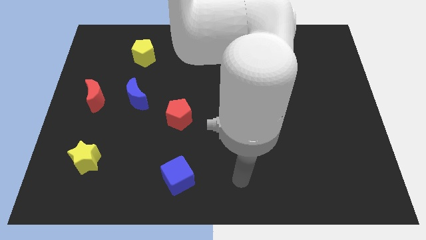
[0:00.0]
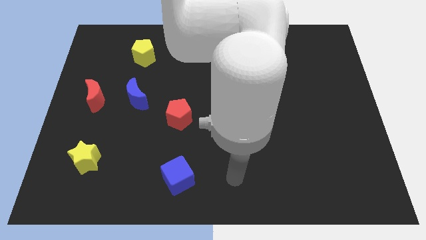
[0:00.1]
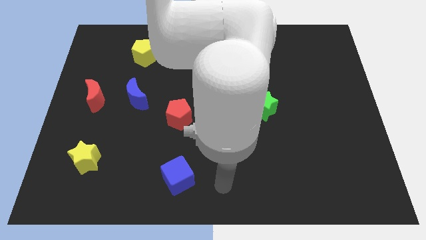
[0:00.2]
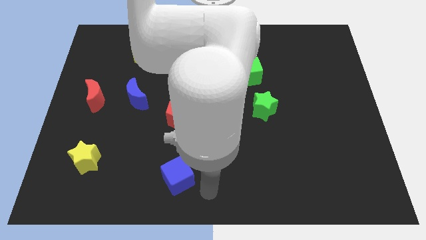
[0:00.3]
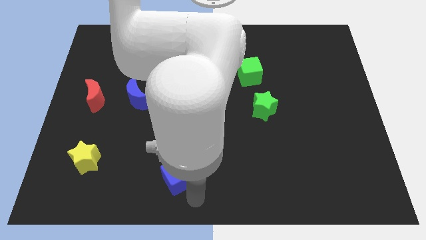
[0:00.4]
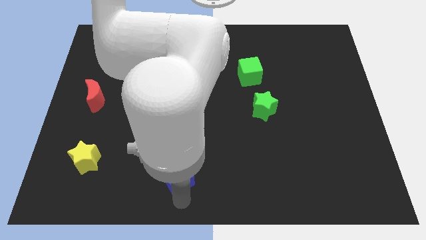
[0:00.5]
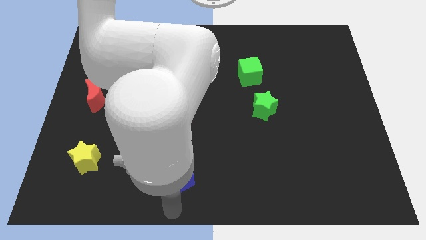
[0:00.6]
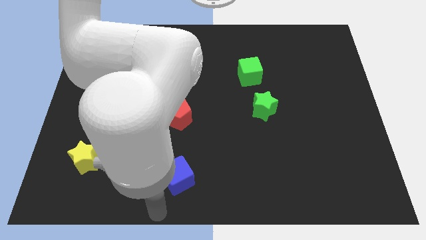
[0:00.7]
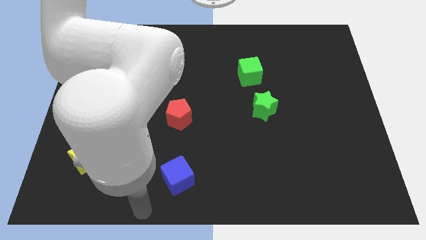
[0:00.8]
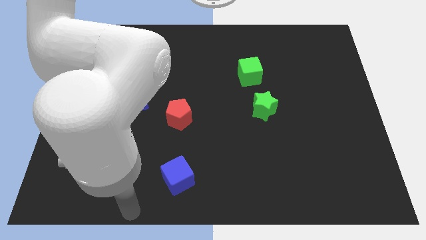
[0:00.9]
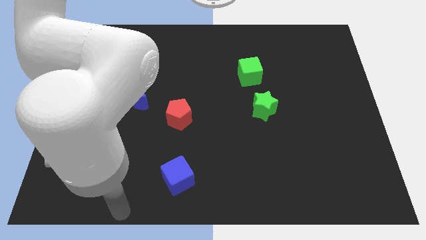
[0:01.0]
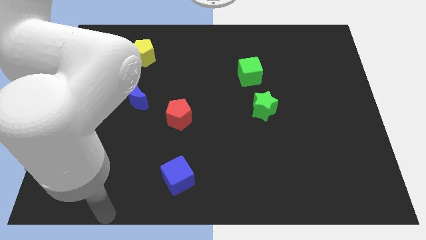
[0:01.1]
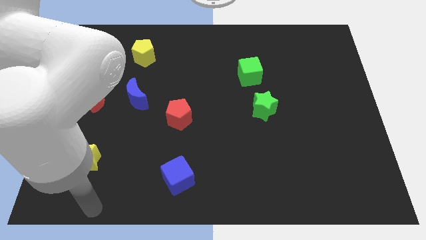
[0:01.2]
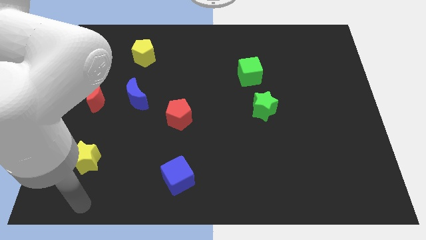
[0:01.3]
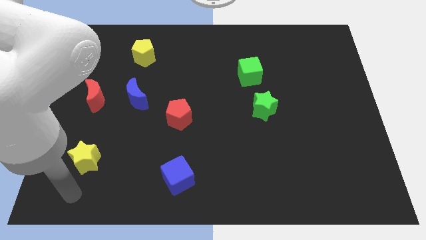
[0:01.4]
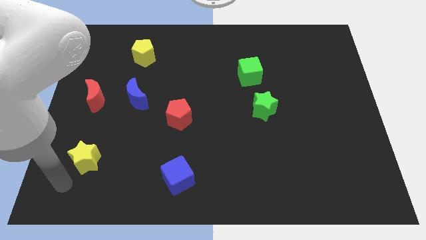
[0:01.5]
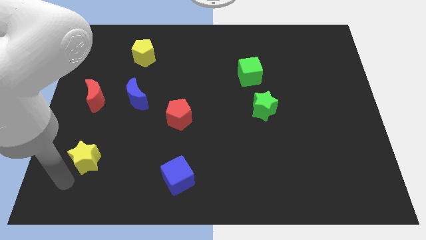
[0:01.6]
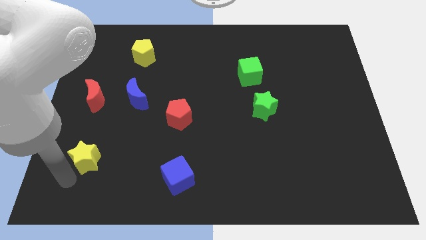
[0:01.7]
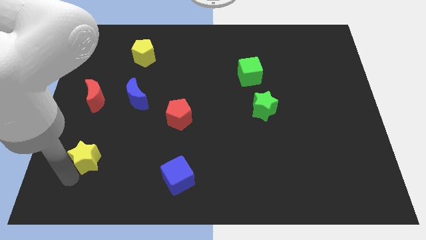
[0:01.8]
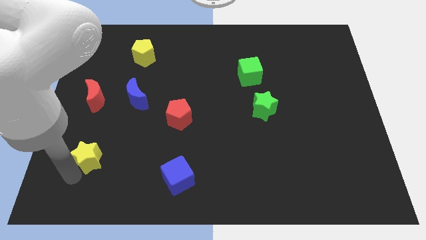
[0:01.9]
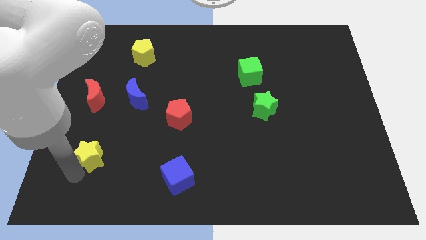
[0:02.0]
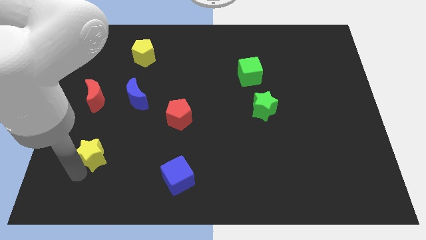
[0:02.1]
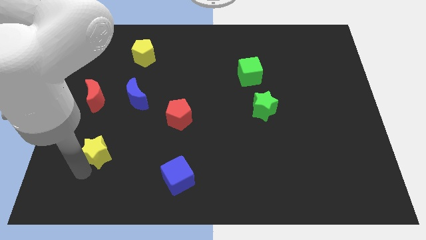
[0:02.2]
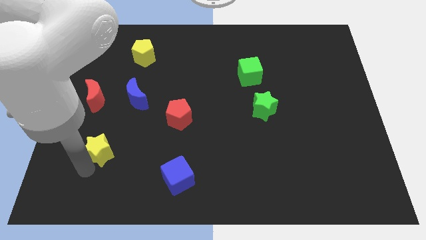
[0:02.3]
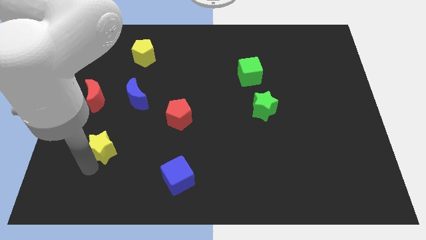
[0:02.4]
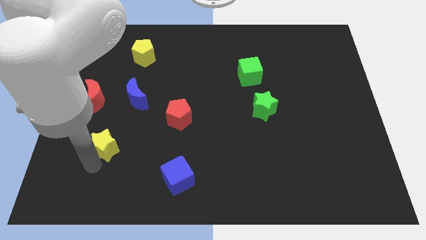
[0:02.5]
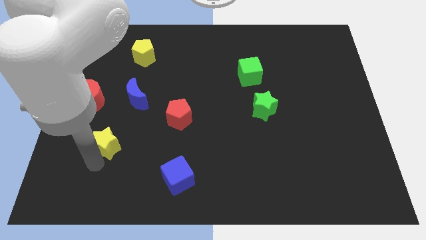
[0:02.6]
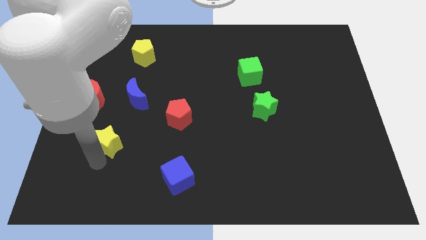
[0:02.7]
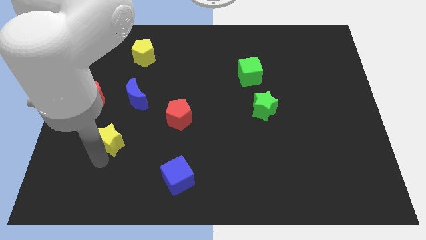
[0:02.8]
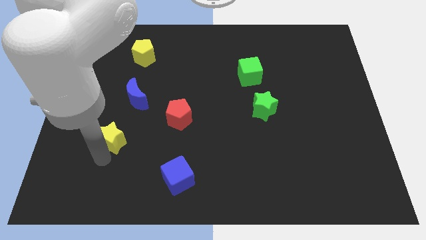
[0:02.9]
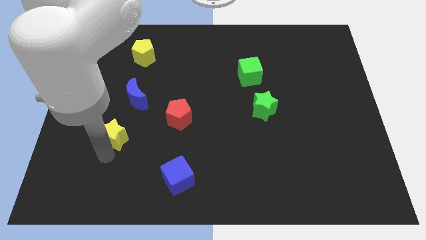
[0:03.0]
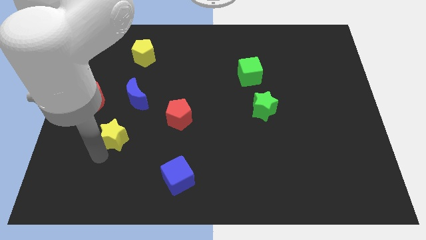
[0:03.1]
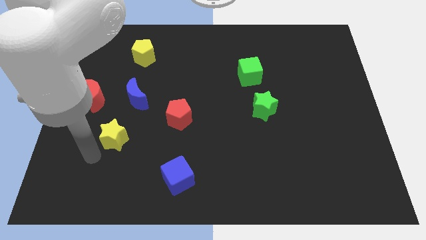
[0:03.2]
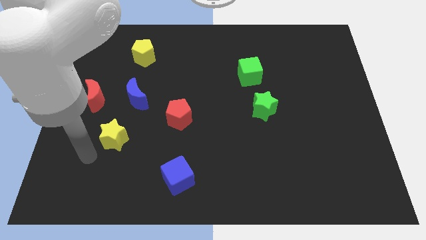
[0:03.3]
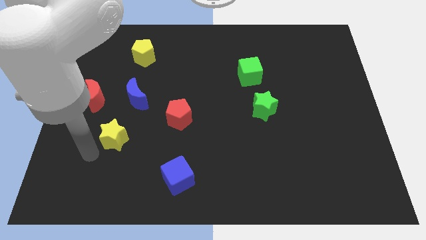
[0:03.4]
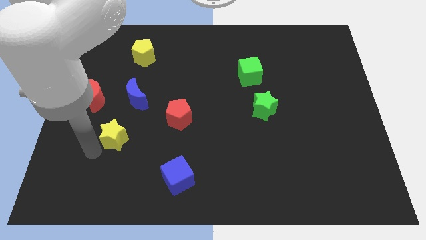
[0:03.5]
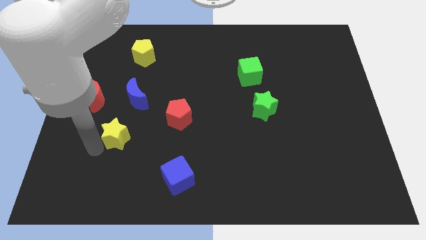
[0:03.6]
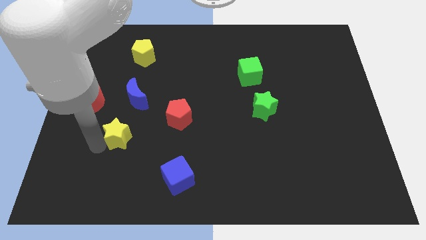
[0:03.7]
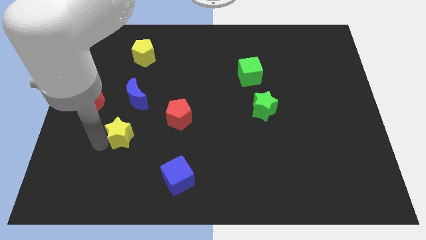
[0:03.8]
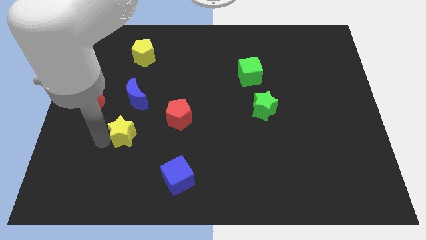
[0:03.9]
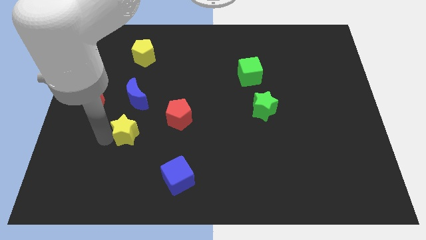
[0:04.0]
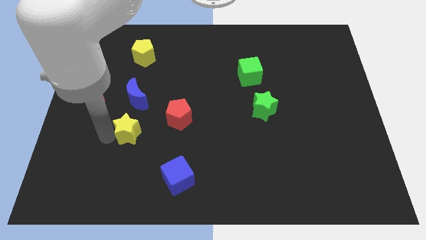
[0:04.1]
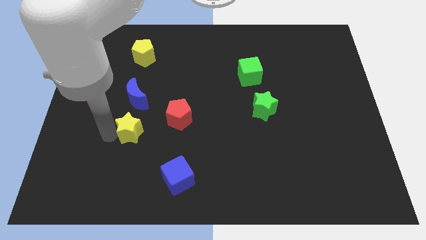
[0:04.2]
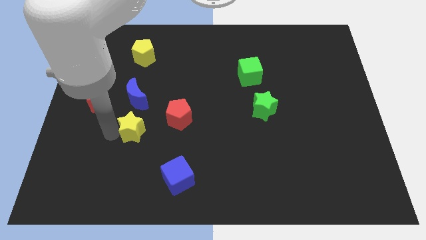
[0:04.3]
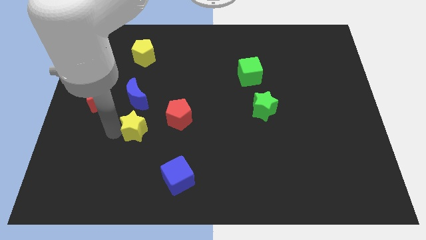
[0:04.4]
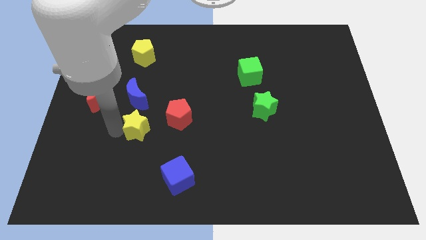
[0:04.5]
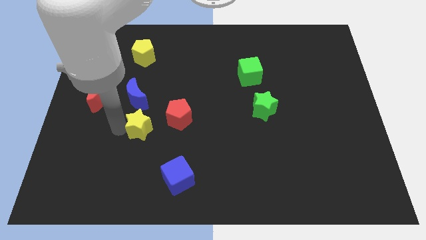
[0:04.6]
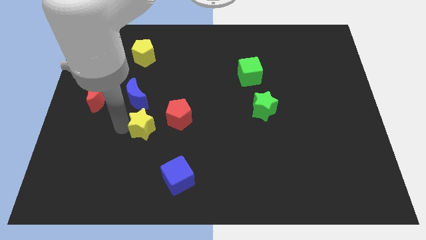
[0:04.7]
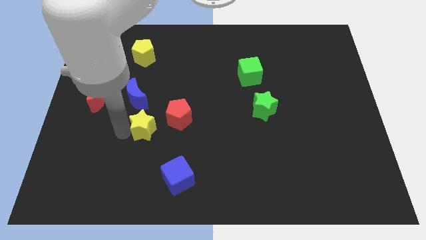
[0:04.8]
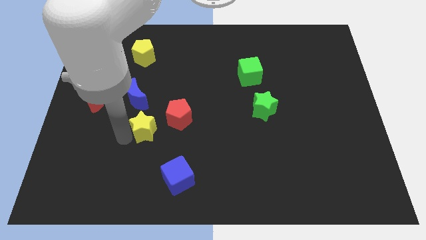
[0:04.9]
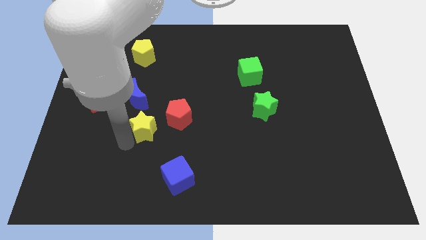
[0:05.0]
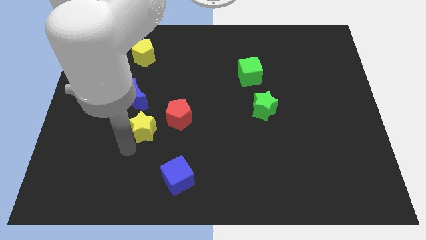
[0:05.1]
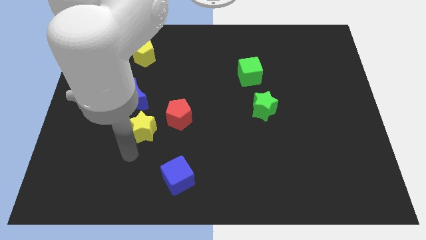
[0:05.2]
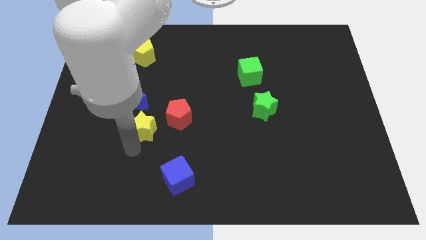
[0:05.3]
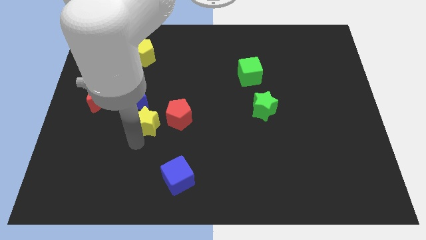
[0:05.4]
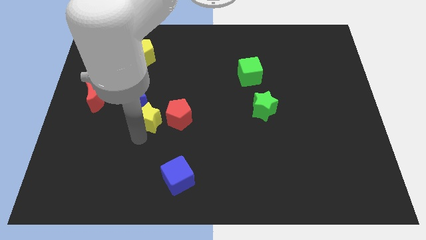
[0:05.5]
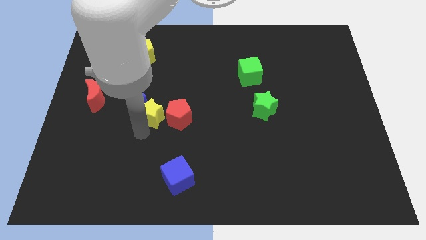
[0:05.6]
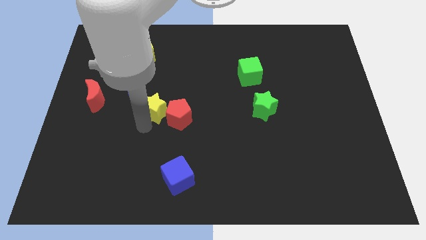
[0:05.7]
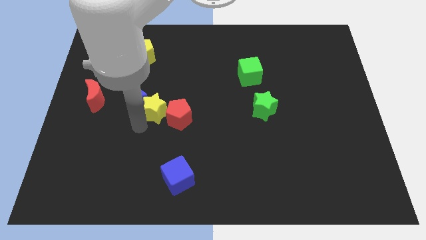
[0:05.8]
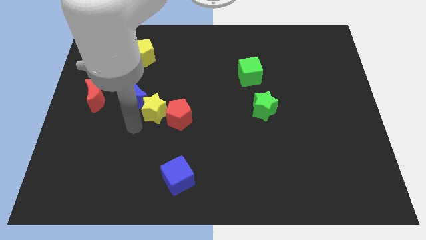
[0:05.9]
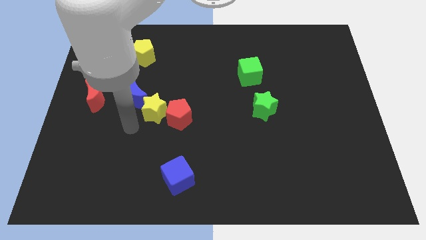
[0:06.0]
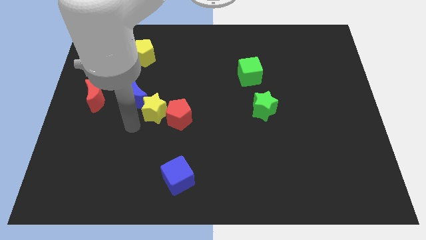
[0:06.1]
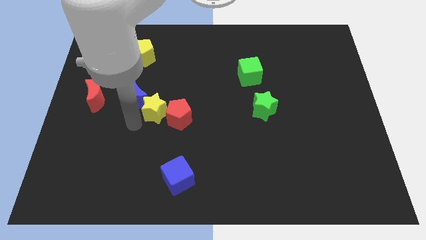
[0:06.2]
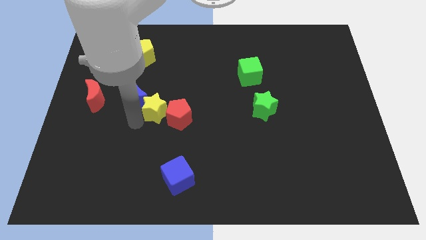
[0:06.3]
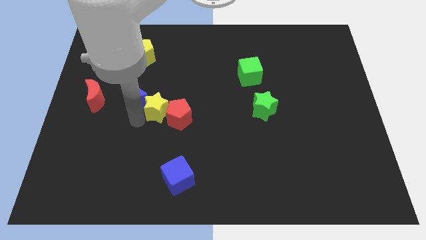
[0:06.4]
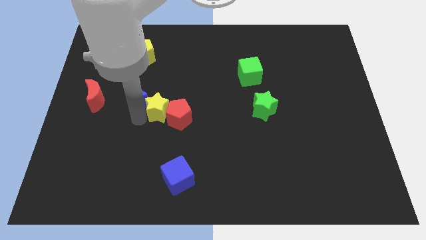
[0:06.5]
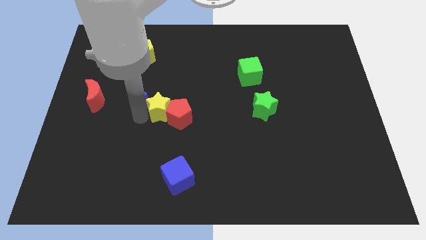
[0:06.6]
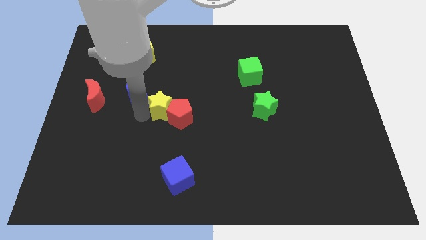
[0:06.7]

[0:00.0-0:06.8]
move the yellow star to the center of the board

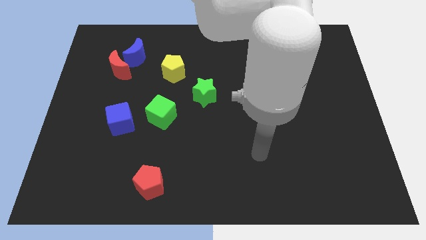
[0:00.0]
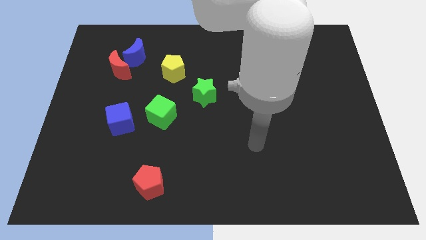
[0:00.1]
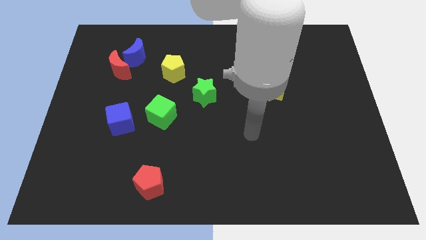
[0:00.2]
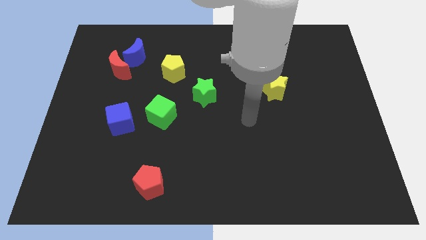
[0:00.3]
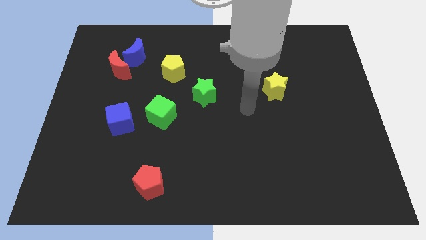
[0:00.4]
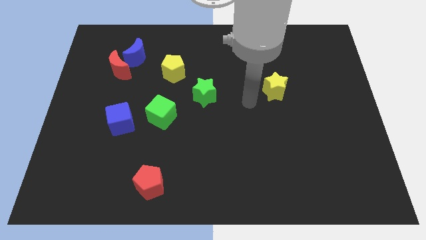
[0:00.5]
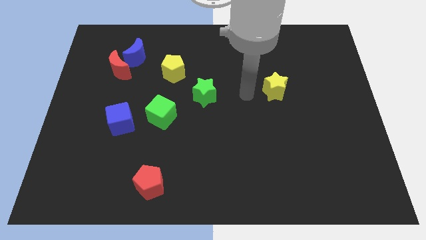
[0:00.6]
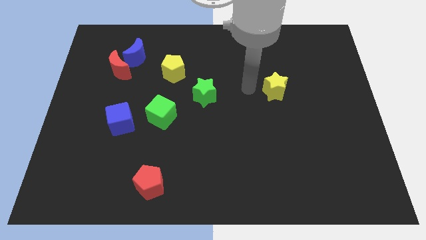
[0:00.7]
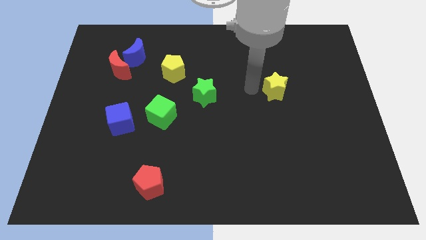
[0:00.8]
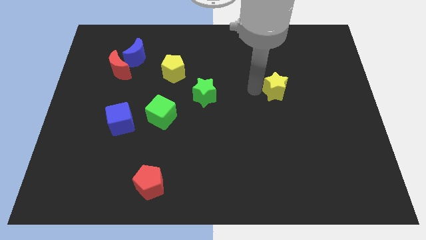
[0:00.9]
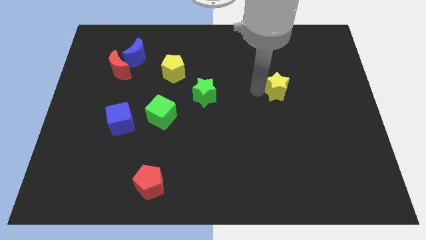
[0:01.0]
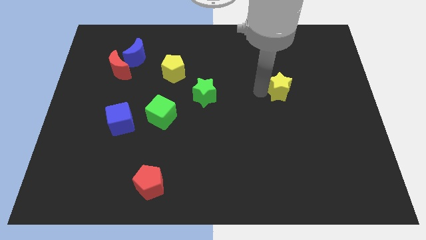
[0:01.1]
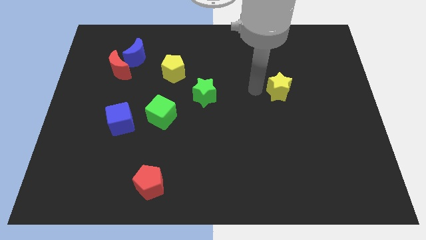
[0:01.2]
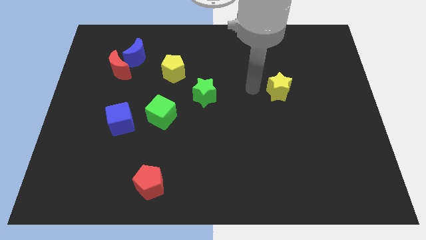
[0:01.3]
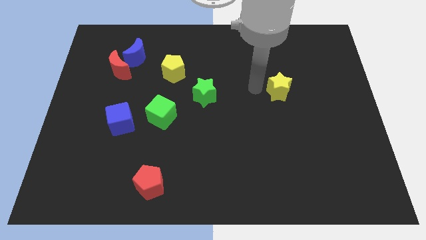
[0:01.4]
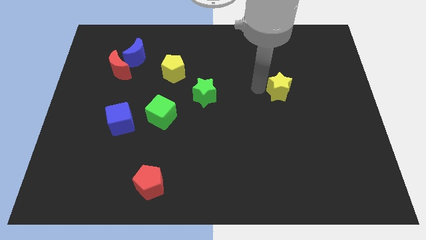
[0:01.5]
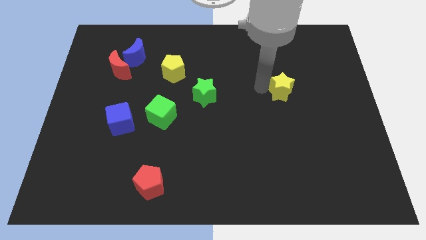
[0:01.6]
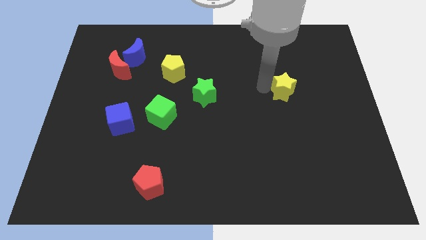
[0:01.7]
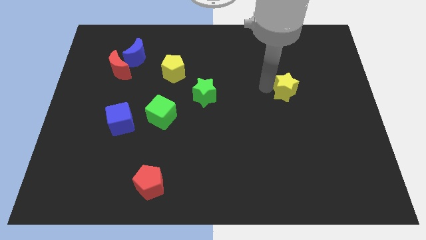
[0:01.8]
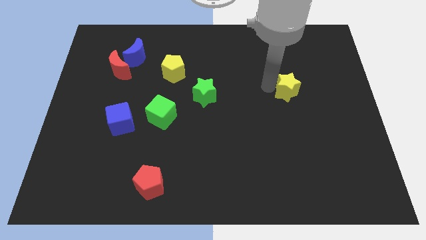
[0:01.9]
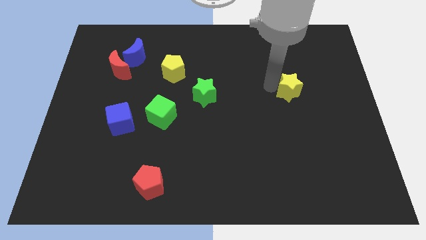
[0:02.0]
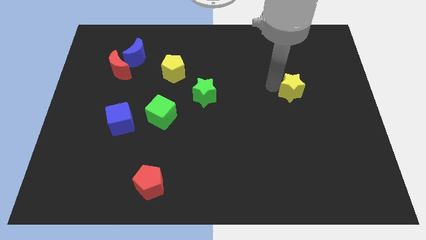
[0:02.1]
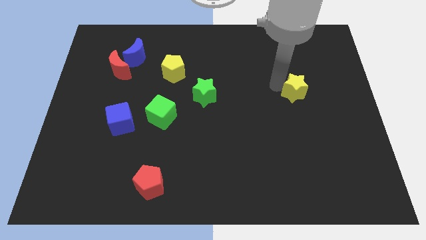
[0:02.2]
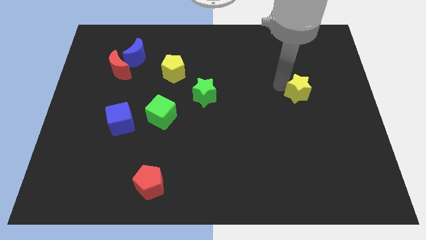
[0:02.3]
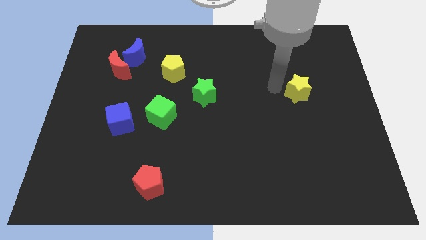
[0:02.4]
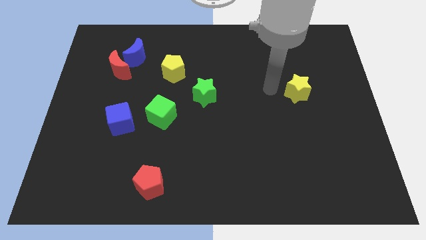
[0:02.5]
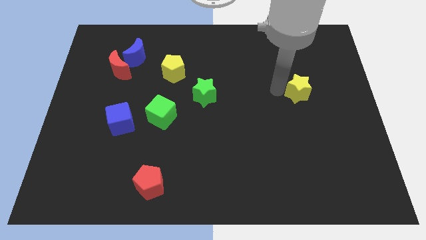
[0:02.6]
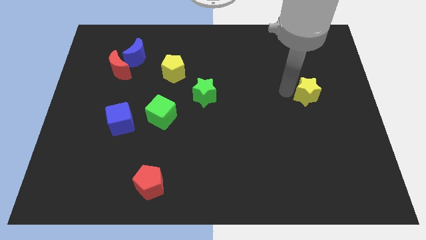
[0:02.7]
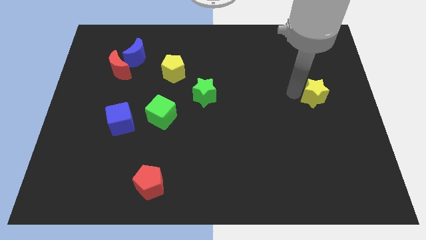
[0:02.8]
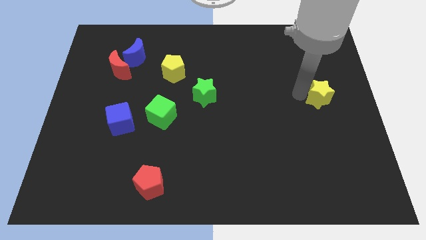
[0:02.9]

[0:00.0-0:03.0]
put the yellow star to the right side of the board
